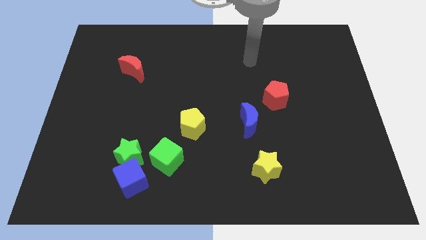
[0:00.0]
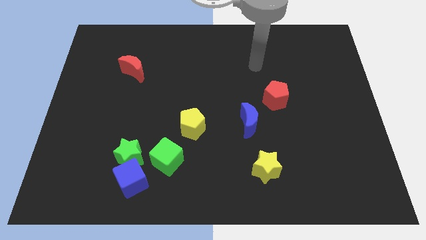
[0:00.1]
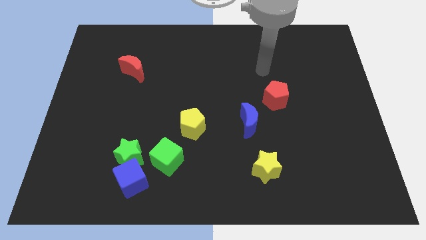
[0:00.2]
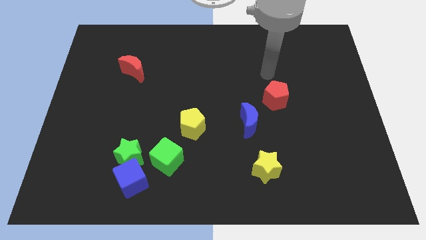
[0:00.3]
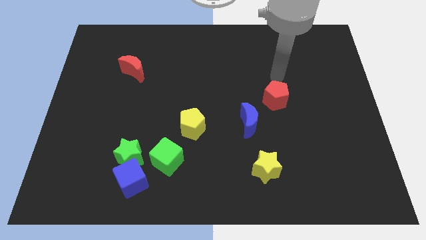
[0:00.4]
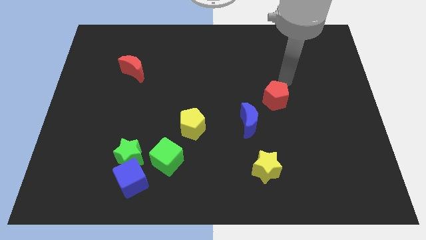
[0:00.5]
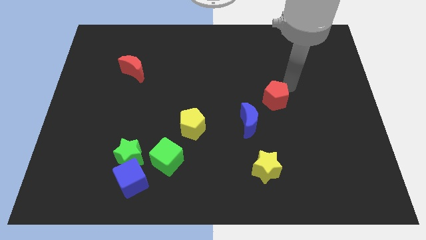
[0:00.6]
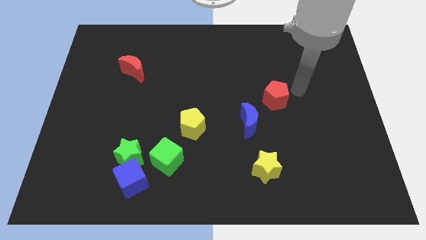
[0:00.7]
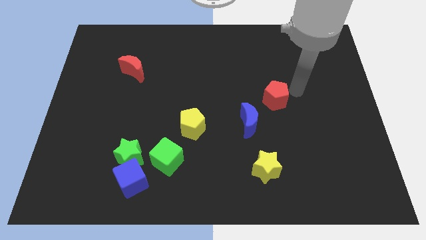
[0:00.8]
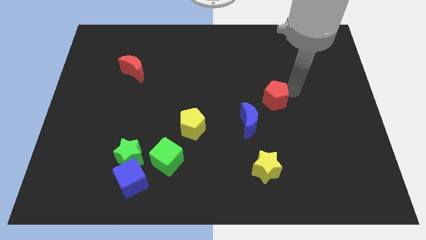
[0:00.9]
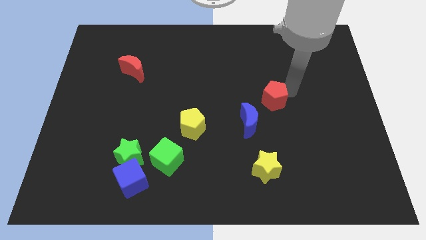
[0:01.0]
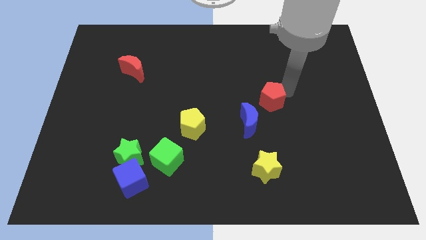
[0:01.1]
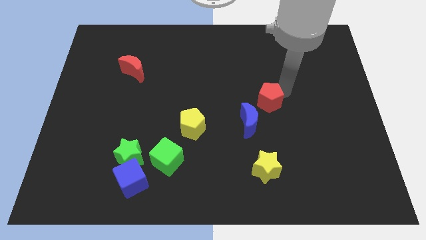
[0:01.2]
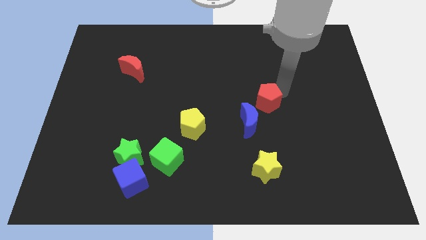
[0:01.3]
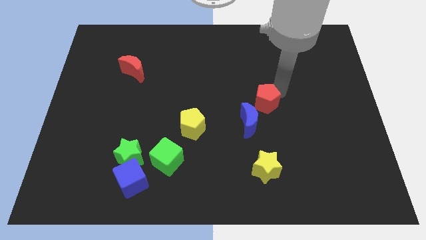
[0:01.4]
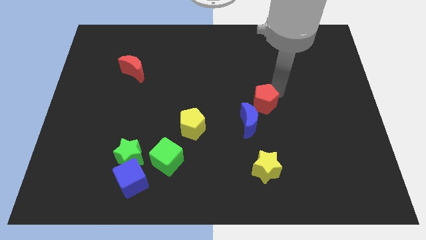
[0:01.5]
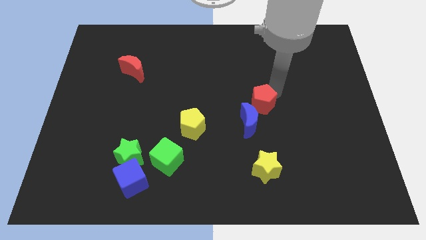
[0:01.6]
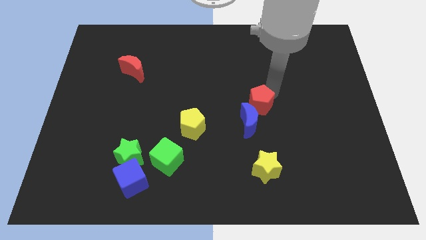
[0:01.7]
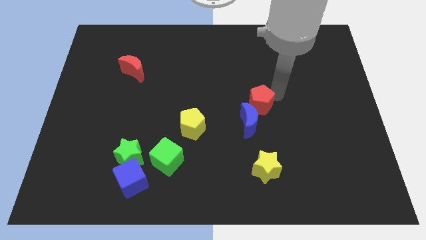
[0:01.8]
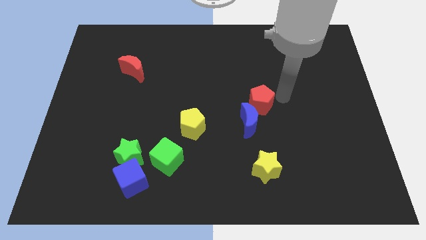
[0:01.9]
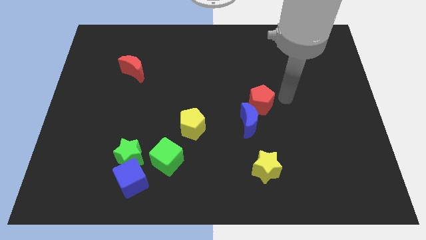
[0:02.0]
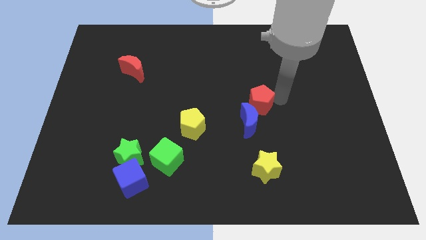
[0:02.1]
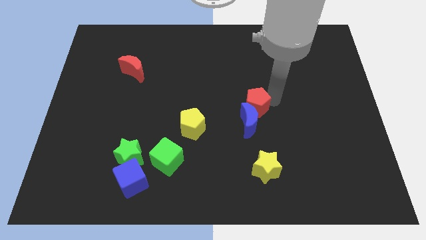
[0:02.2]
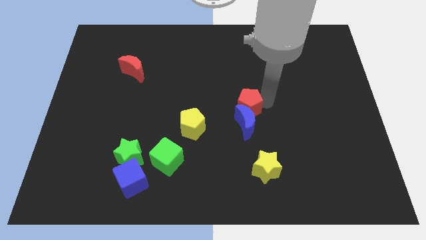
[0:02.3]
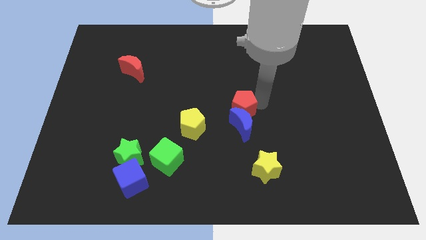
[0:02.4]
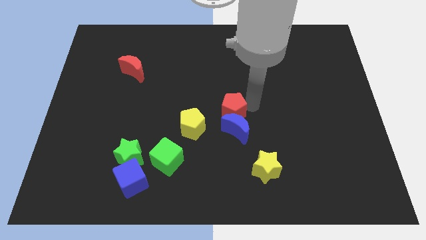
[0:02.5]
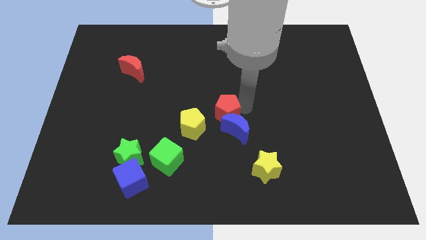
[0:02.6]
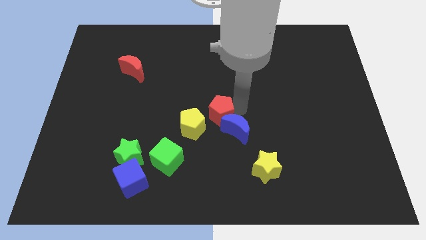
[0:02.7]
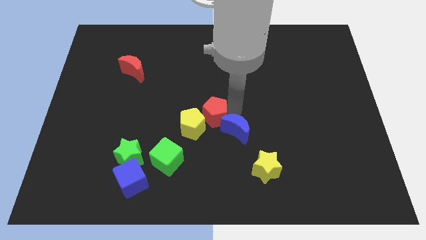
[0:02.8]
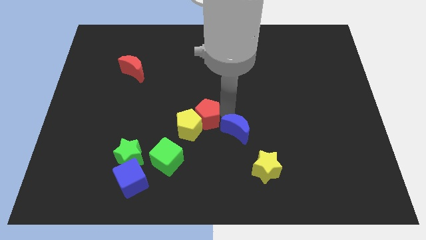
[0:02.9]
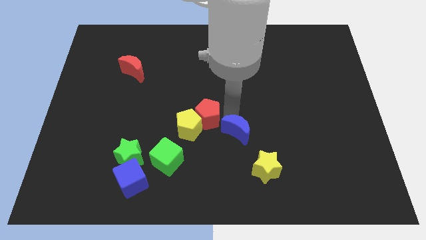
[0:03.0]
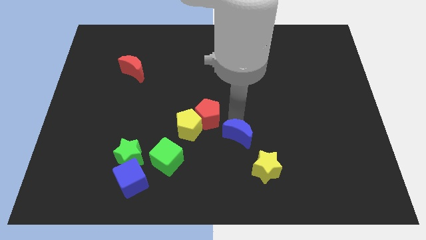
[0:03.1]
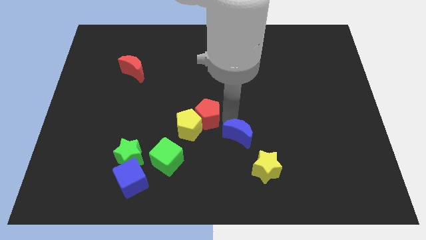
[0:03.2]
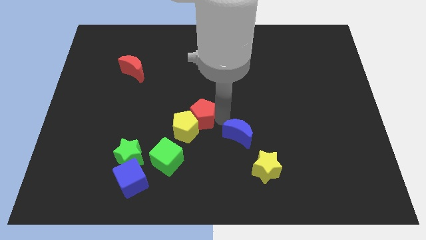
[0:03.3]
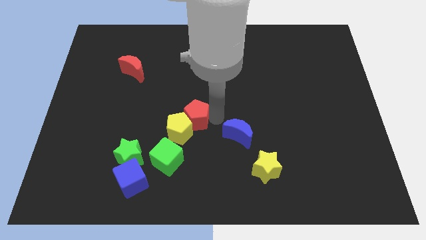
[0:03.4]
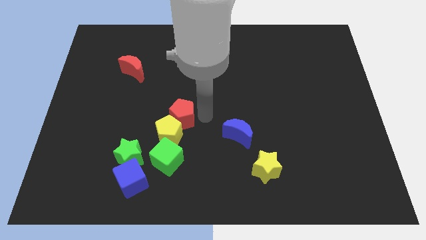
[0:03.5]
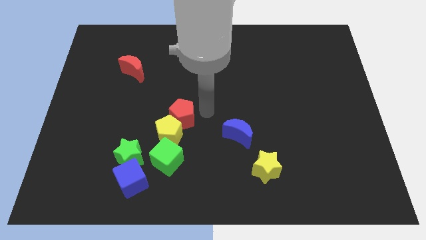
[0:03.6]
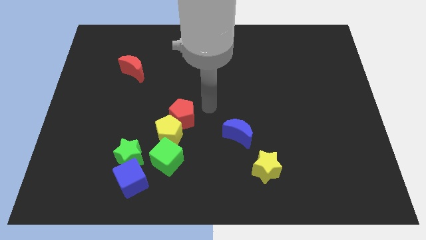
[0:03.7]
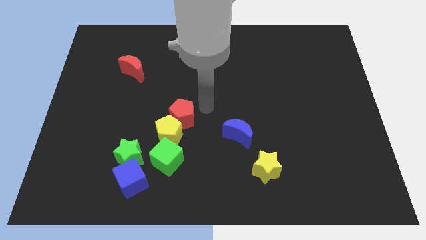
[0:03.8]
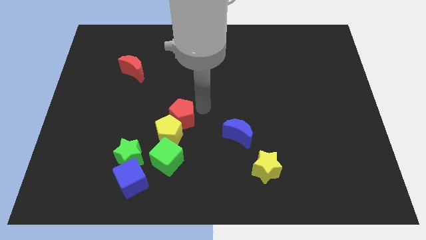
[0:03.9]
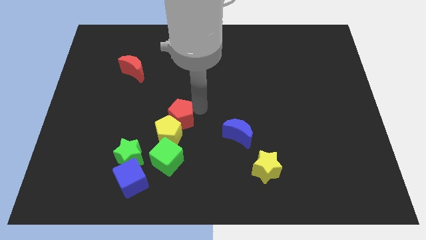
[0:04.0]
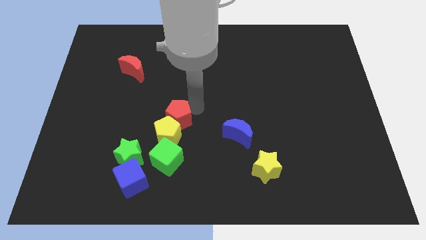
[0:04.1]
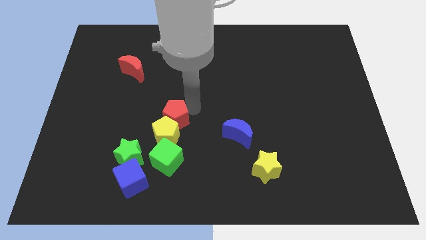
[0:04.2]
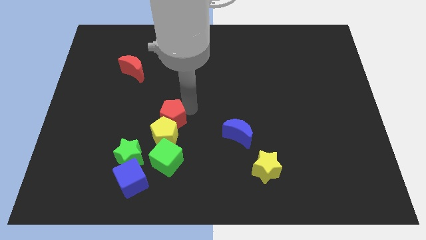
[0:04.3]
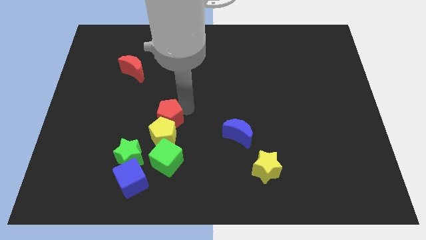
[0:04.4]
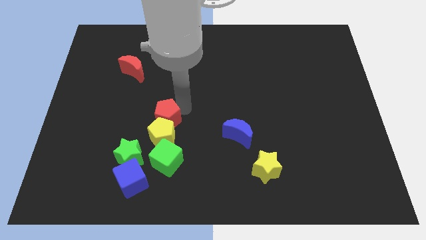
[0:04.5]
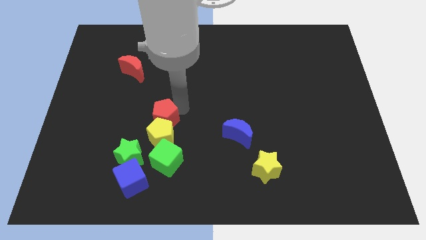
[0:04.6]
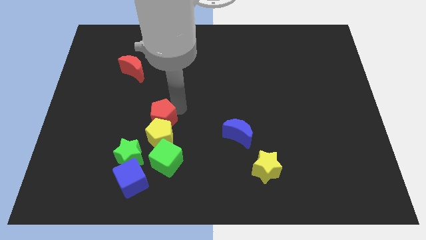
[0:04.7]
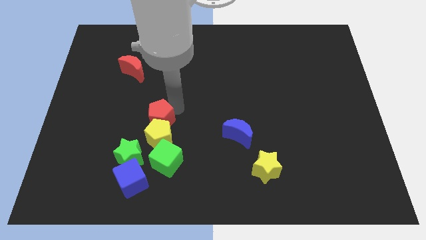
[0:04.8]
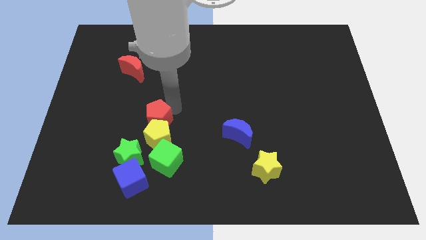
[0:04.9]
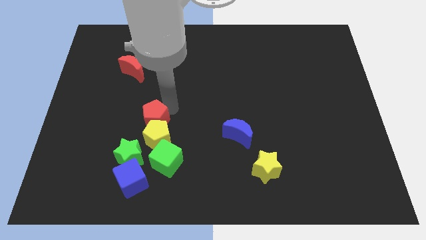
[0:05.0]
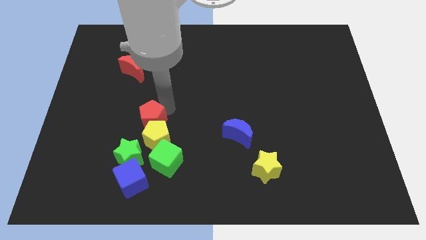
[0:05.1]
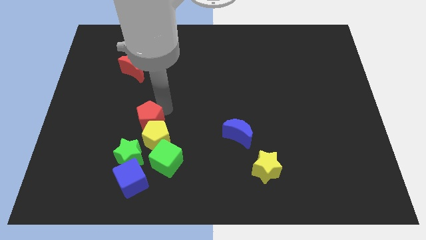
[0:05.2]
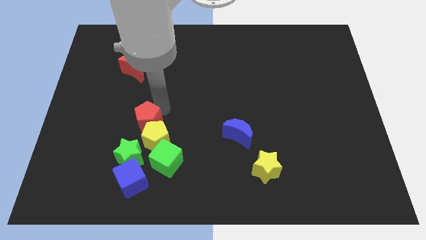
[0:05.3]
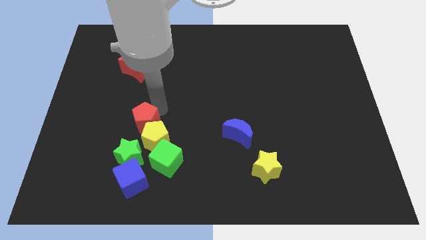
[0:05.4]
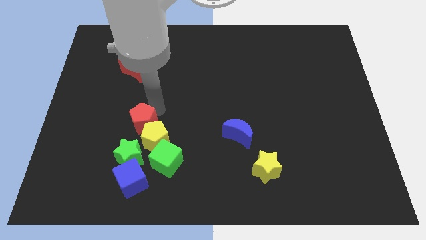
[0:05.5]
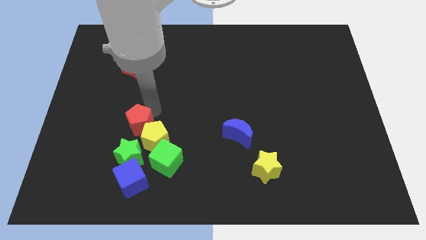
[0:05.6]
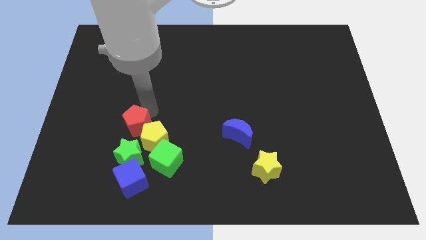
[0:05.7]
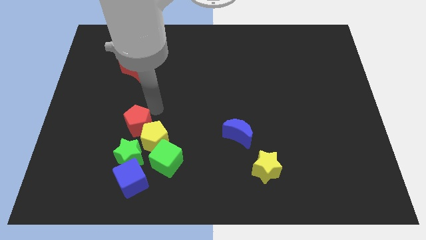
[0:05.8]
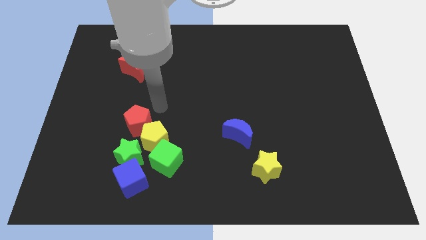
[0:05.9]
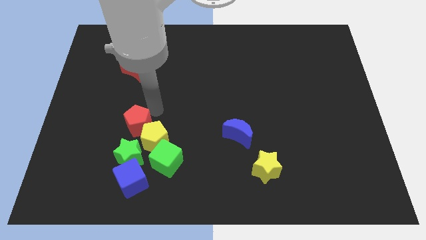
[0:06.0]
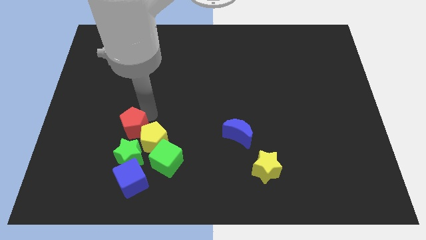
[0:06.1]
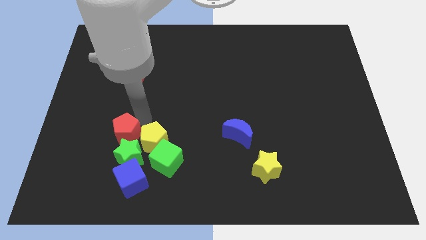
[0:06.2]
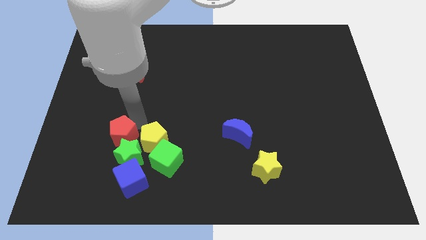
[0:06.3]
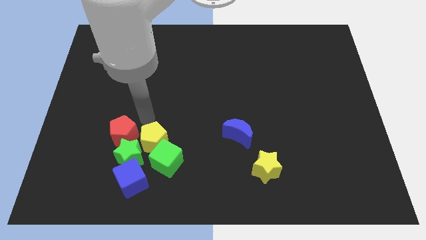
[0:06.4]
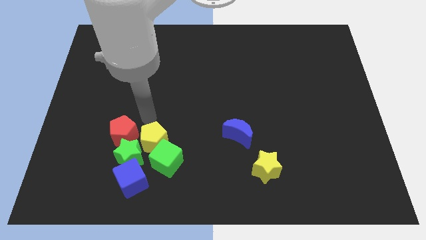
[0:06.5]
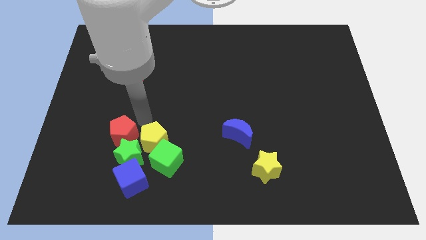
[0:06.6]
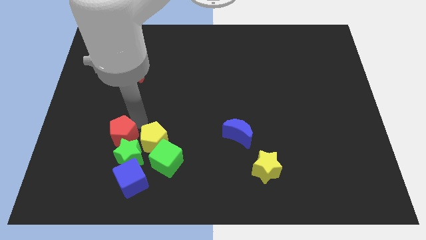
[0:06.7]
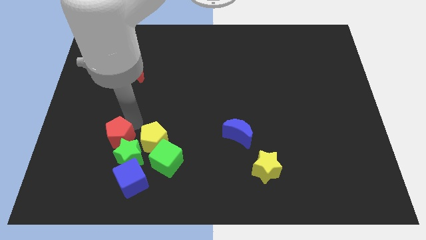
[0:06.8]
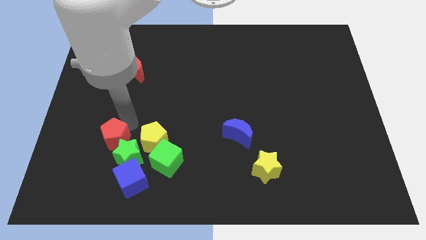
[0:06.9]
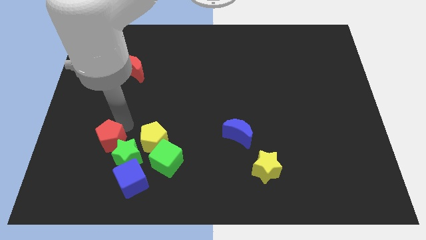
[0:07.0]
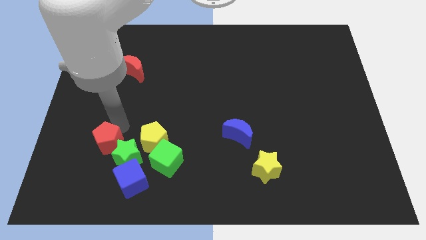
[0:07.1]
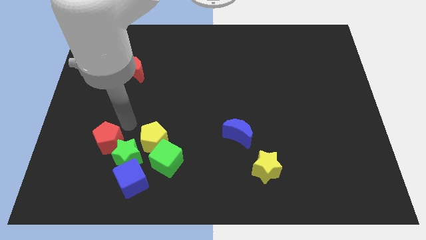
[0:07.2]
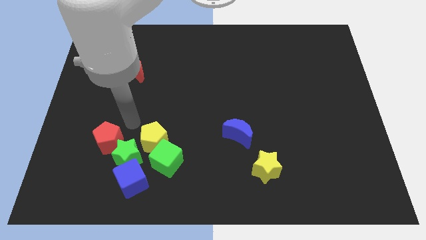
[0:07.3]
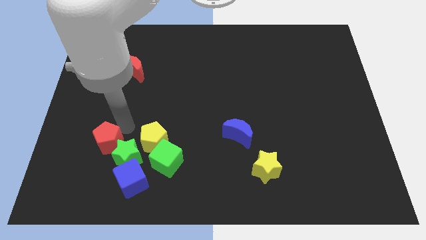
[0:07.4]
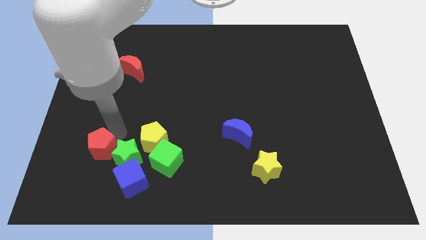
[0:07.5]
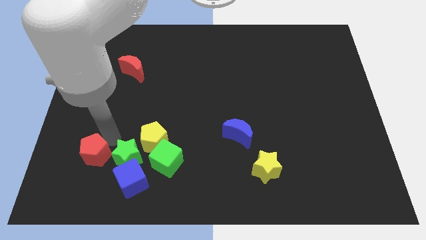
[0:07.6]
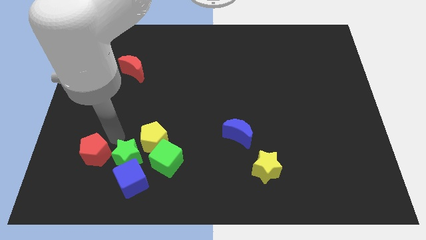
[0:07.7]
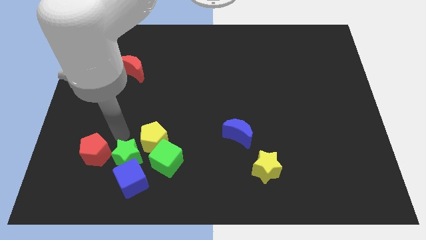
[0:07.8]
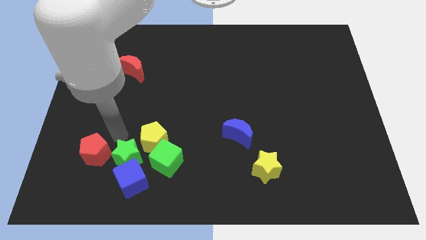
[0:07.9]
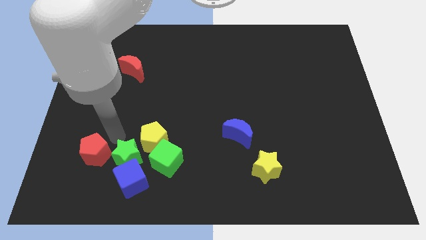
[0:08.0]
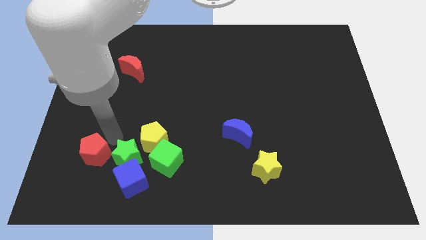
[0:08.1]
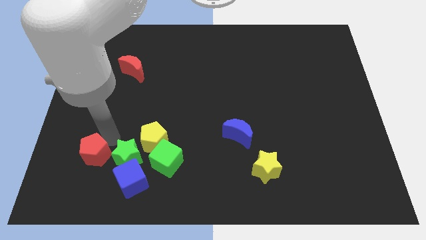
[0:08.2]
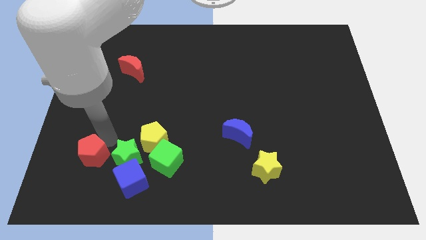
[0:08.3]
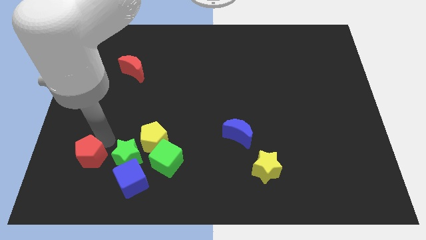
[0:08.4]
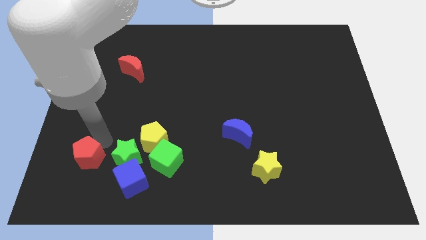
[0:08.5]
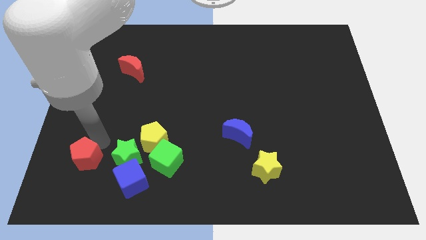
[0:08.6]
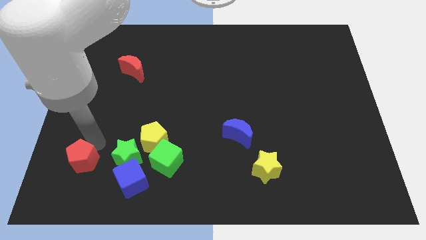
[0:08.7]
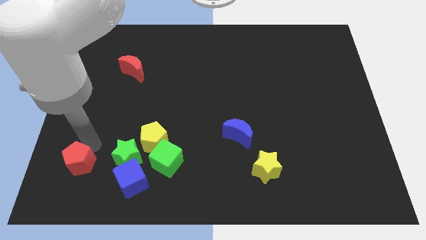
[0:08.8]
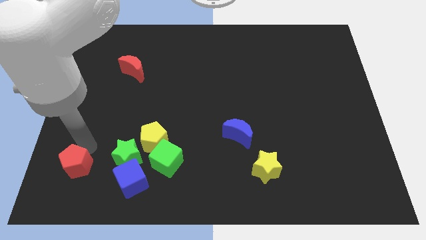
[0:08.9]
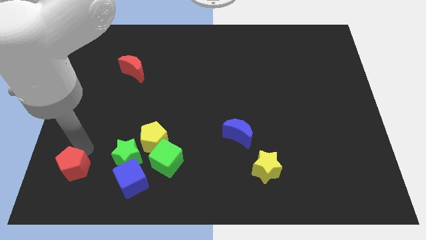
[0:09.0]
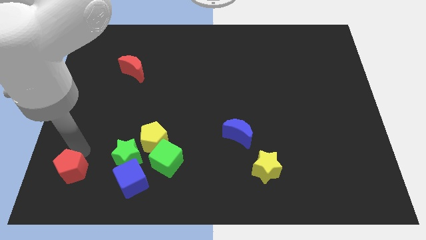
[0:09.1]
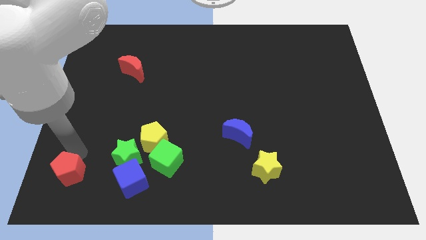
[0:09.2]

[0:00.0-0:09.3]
push the red pentagon to the bottom left corner
